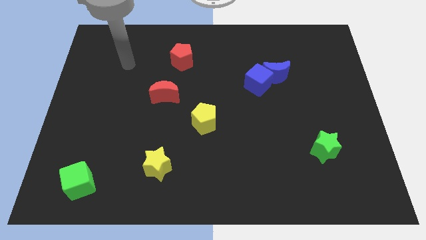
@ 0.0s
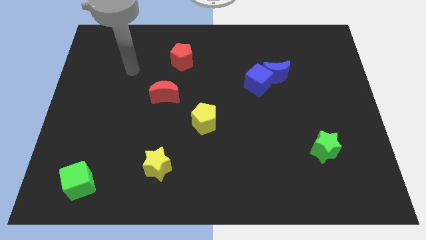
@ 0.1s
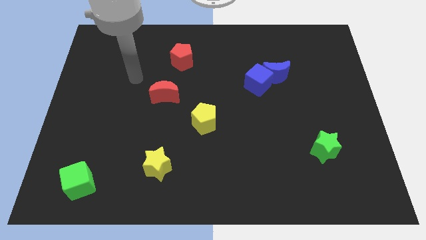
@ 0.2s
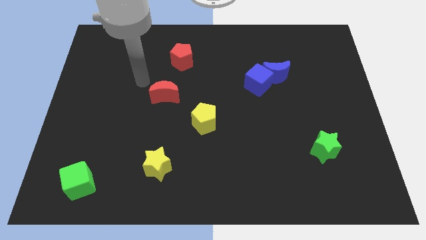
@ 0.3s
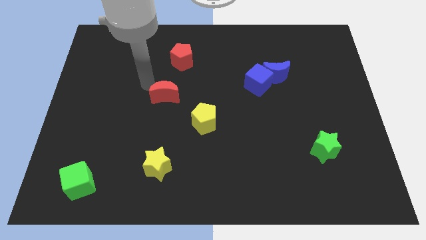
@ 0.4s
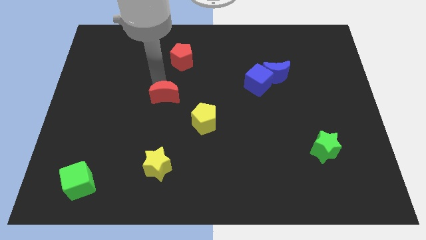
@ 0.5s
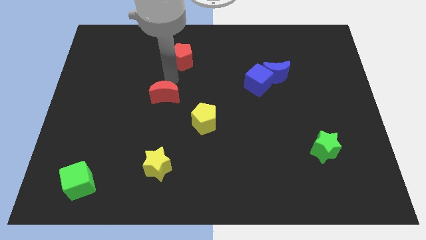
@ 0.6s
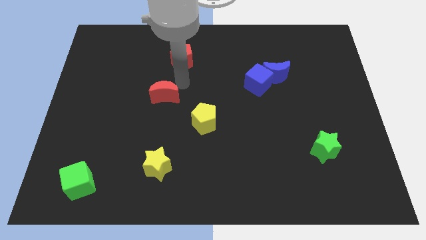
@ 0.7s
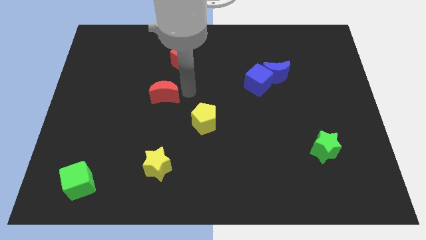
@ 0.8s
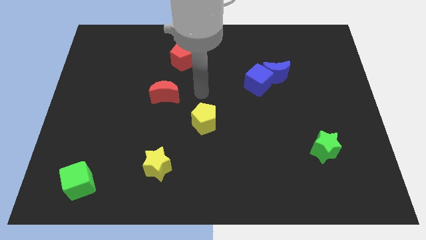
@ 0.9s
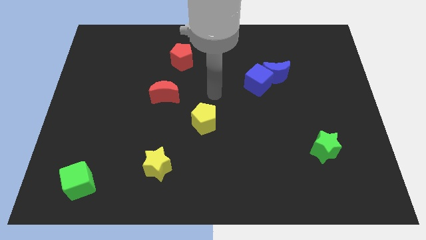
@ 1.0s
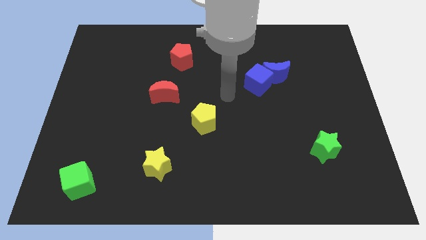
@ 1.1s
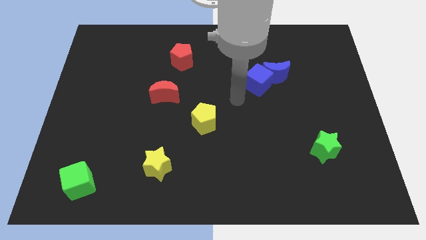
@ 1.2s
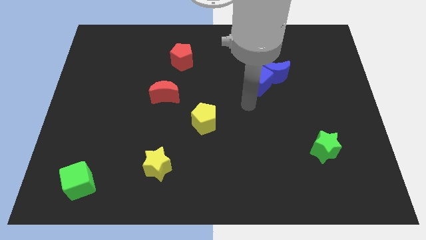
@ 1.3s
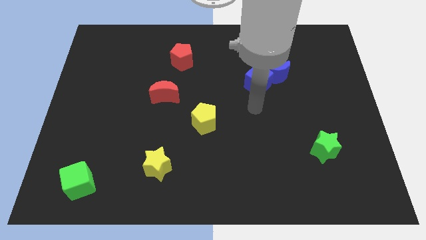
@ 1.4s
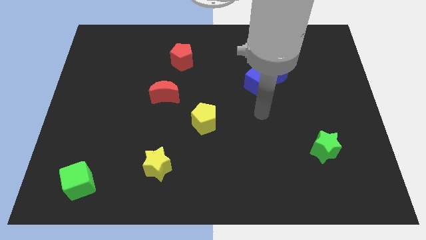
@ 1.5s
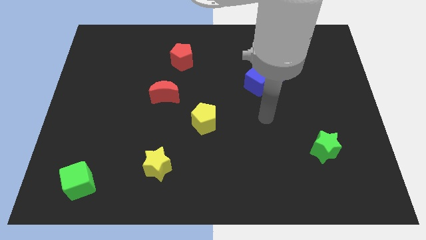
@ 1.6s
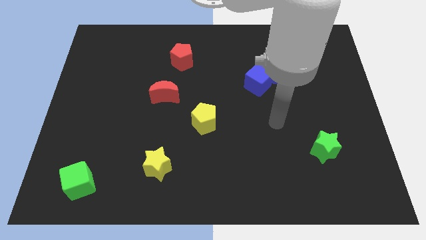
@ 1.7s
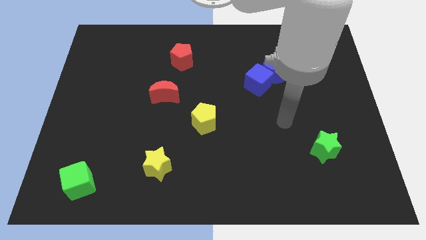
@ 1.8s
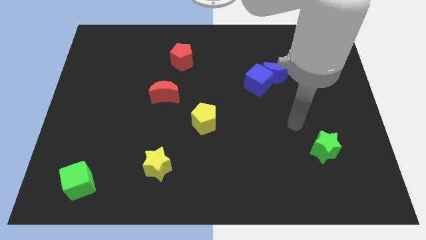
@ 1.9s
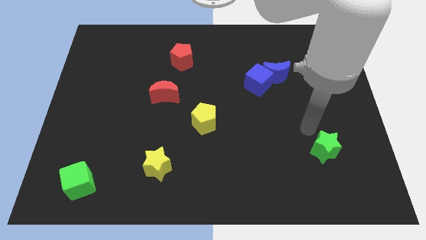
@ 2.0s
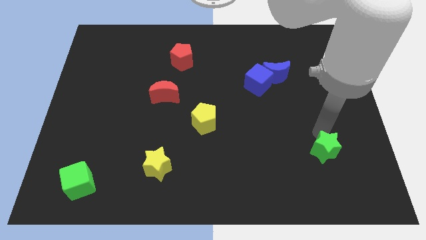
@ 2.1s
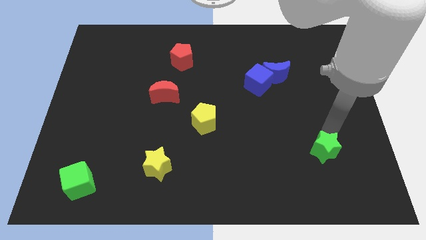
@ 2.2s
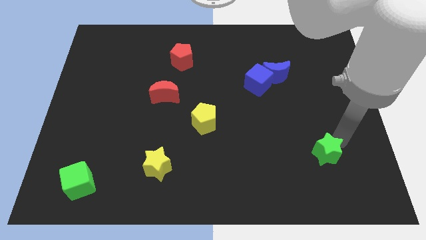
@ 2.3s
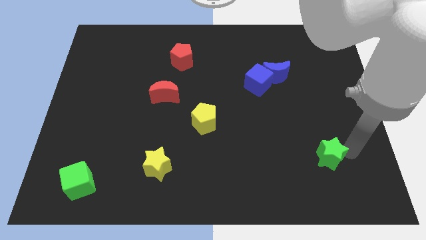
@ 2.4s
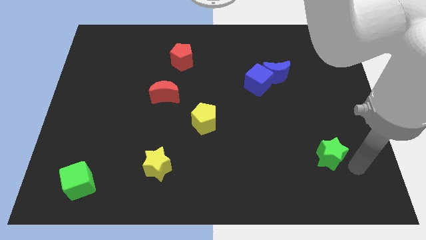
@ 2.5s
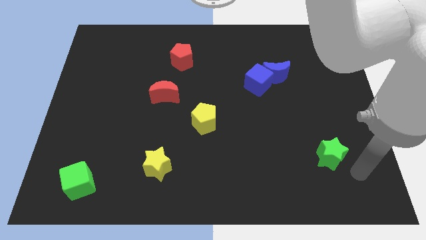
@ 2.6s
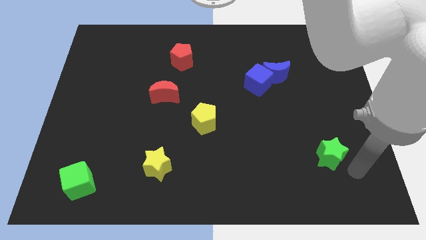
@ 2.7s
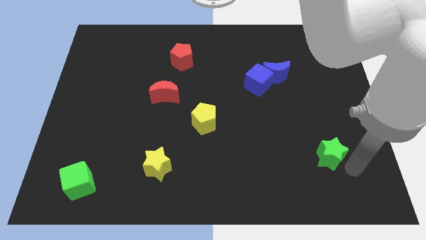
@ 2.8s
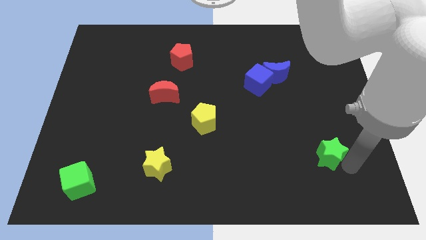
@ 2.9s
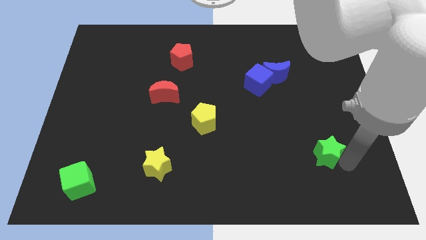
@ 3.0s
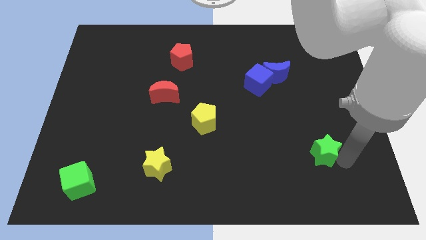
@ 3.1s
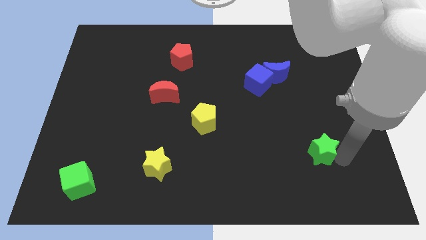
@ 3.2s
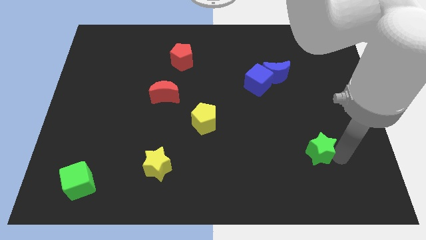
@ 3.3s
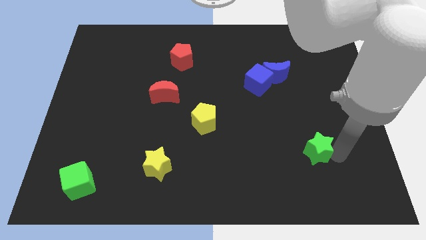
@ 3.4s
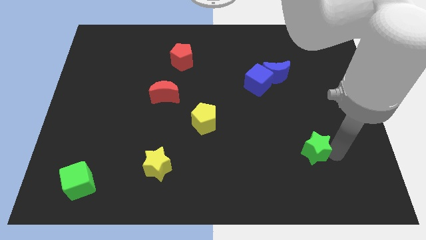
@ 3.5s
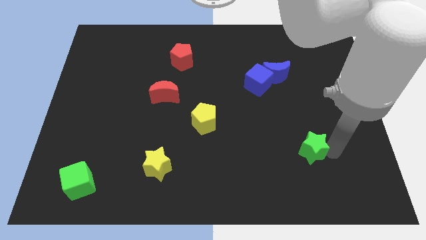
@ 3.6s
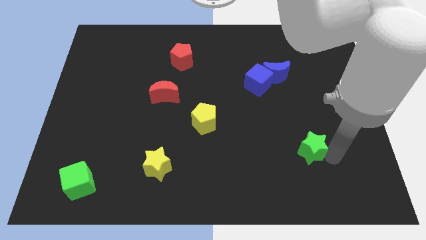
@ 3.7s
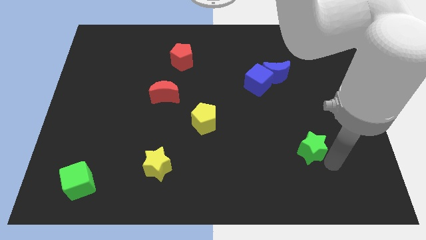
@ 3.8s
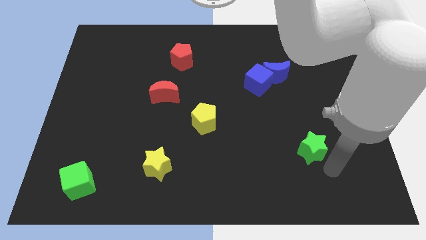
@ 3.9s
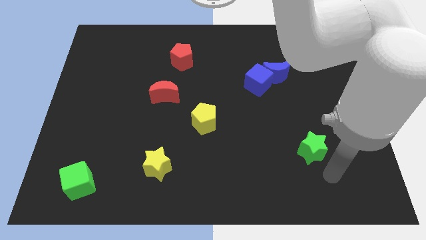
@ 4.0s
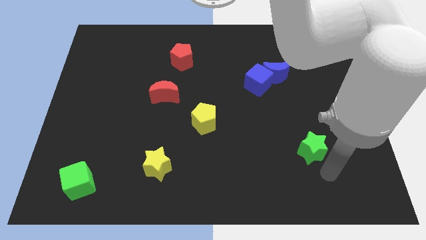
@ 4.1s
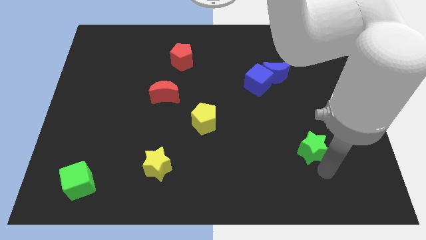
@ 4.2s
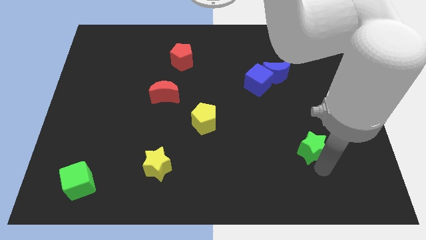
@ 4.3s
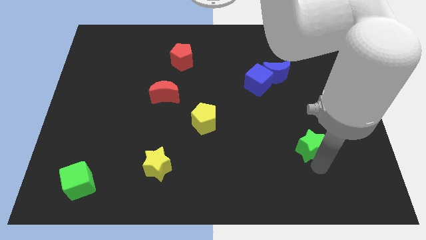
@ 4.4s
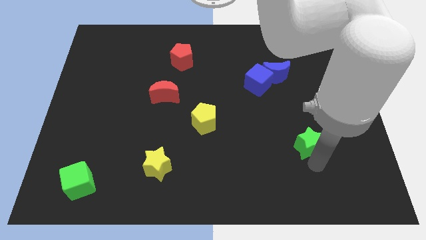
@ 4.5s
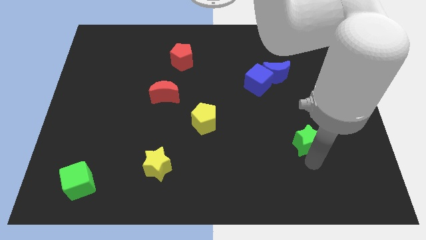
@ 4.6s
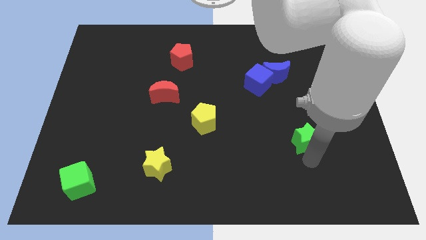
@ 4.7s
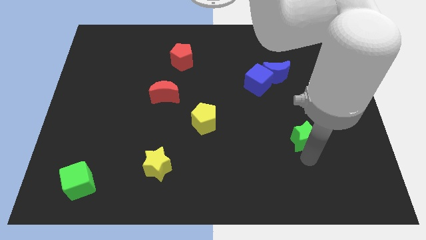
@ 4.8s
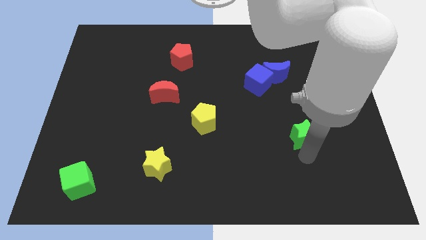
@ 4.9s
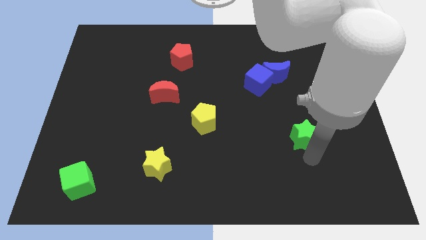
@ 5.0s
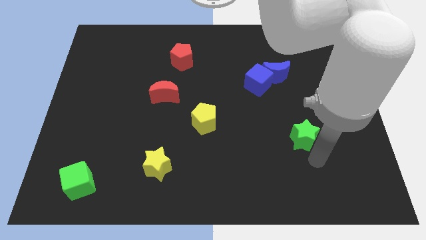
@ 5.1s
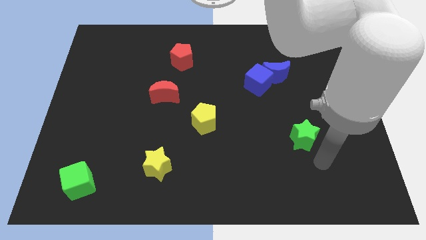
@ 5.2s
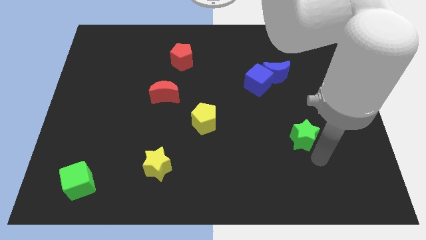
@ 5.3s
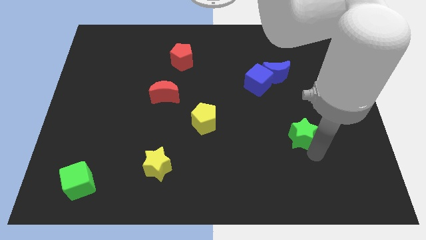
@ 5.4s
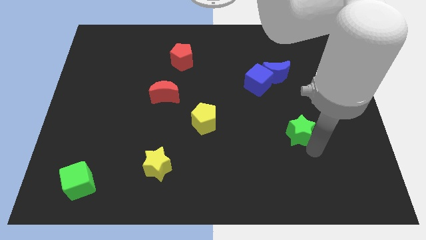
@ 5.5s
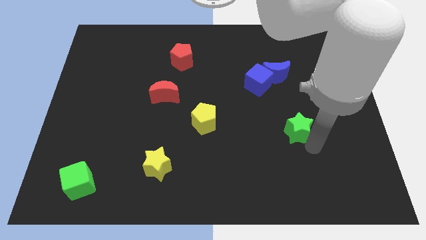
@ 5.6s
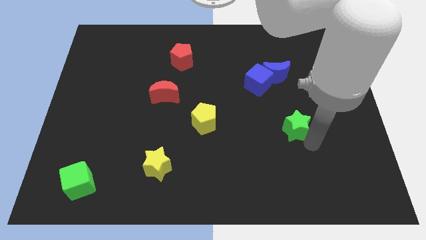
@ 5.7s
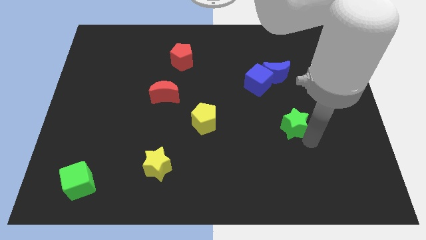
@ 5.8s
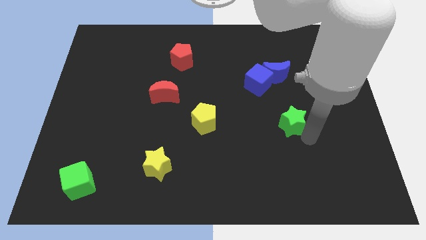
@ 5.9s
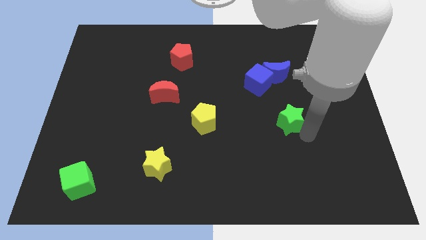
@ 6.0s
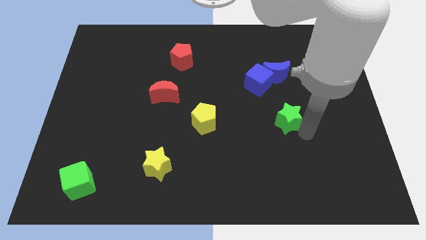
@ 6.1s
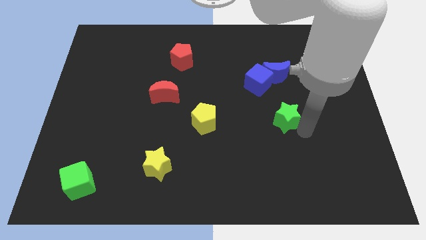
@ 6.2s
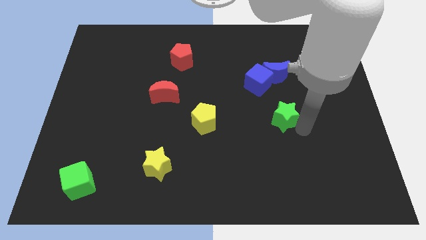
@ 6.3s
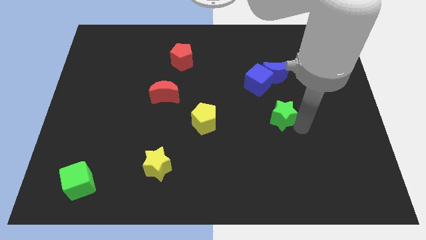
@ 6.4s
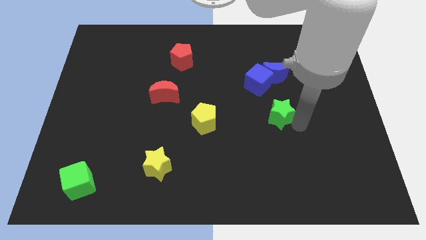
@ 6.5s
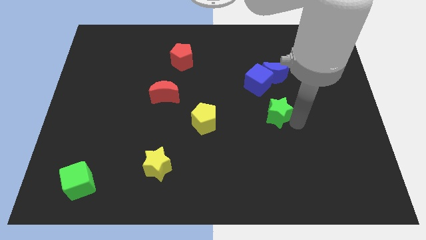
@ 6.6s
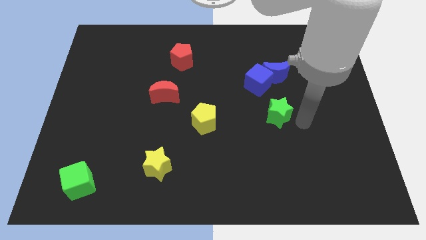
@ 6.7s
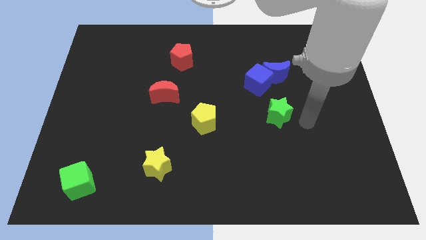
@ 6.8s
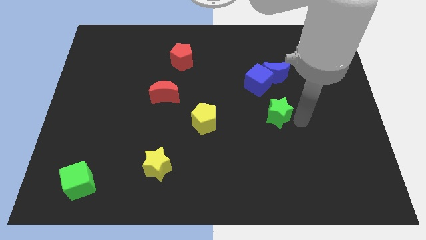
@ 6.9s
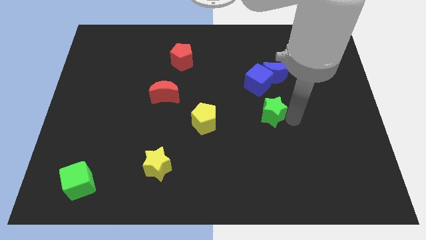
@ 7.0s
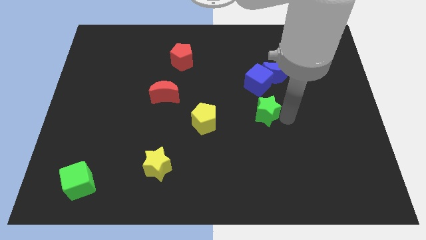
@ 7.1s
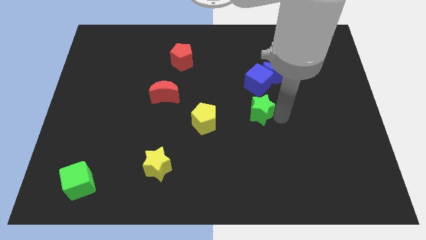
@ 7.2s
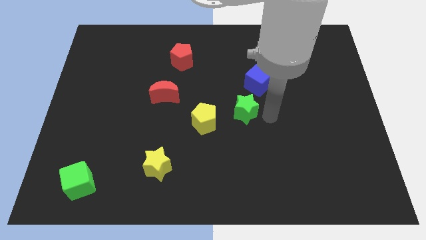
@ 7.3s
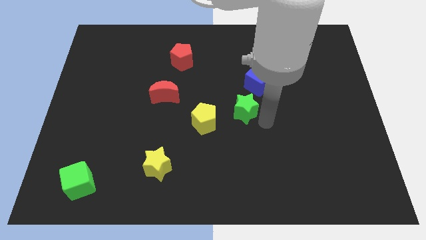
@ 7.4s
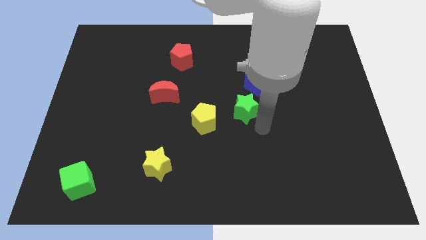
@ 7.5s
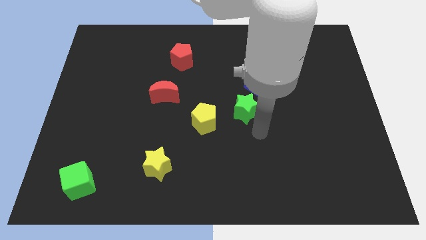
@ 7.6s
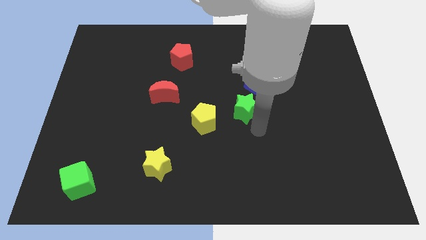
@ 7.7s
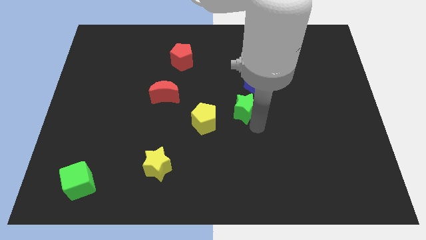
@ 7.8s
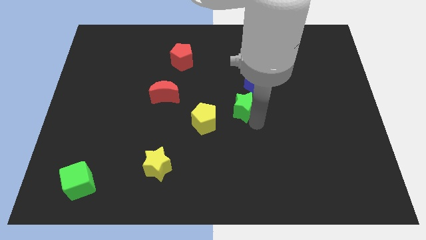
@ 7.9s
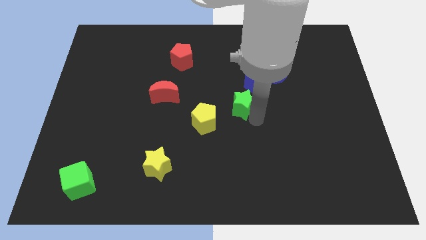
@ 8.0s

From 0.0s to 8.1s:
push the green star upwards and to the left diagonally
